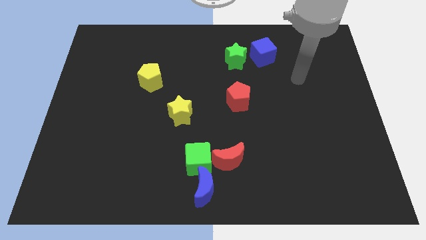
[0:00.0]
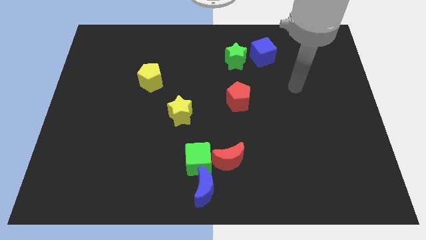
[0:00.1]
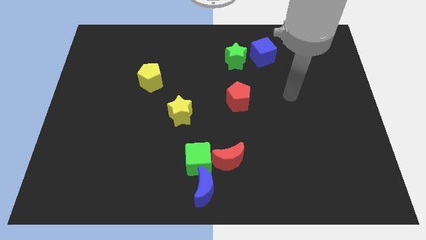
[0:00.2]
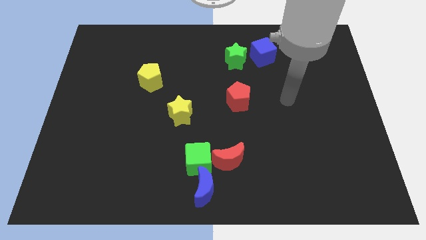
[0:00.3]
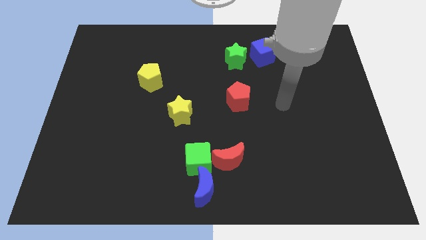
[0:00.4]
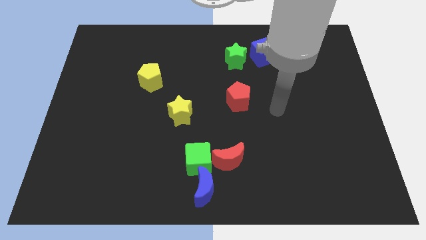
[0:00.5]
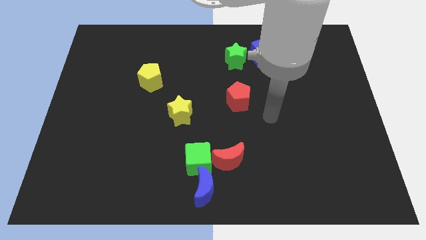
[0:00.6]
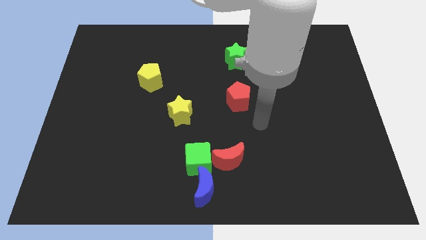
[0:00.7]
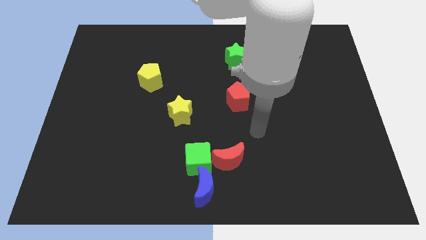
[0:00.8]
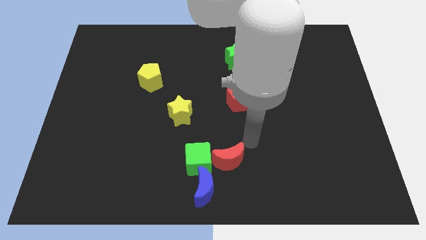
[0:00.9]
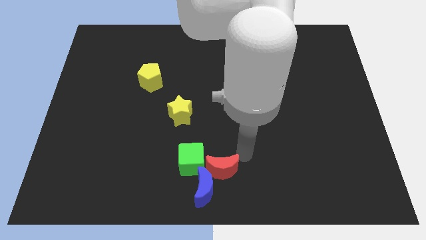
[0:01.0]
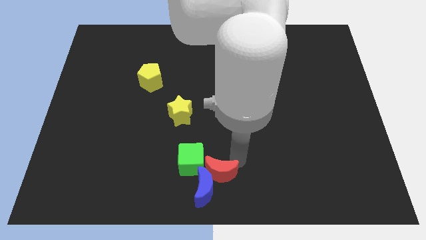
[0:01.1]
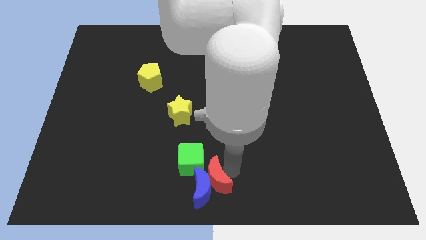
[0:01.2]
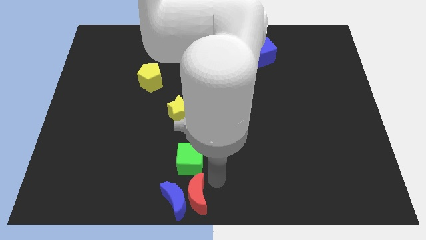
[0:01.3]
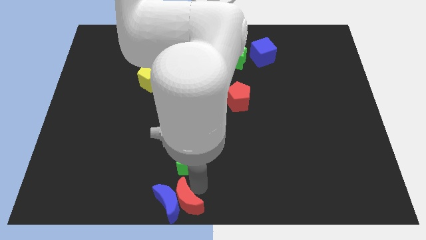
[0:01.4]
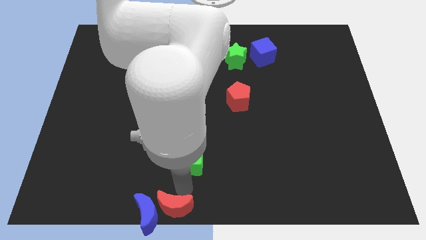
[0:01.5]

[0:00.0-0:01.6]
move the green cube away from the red moon and blue moon

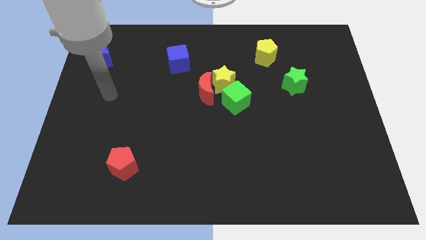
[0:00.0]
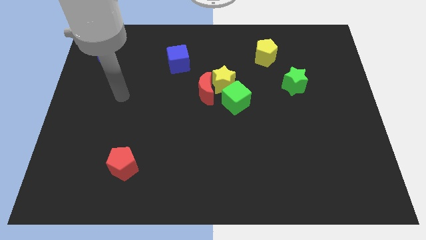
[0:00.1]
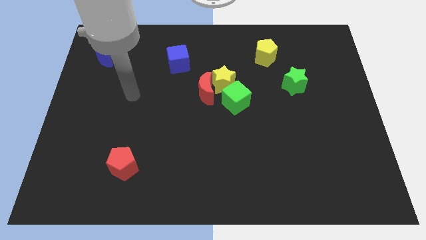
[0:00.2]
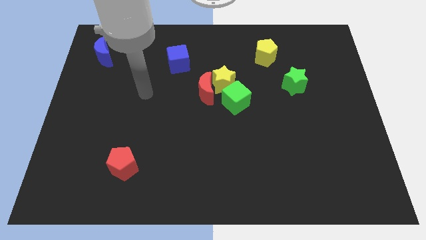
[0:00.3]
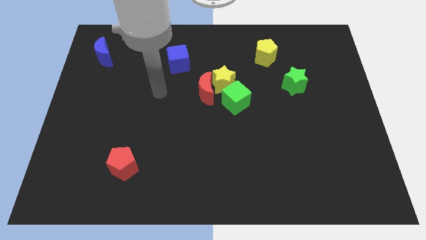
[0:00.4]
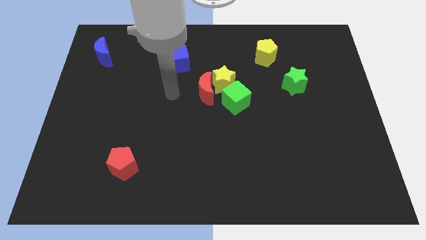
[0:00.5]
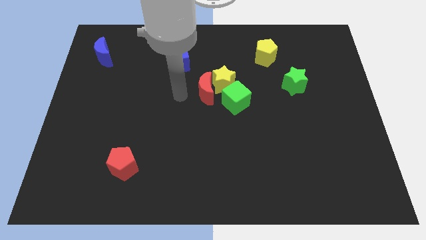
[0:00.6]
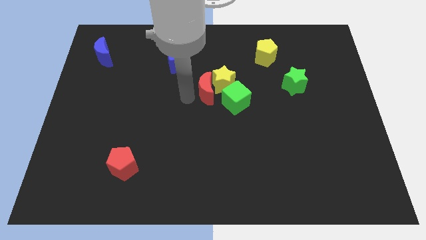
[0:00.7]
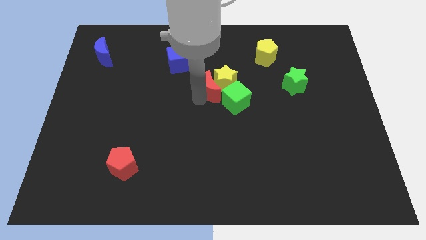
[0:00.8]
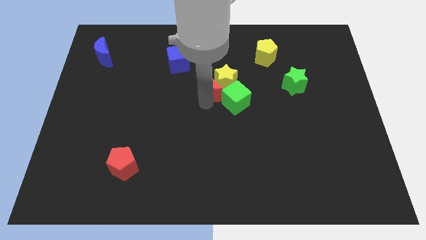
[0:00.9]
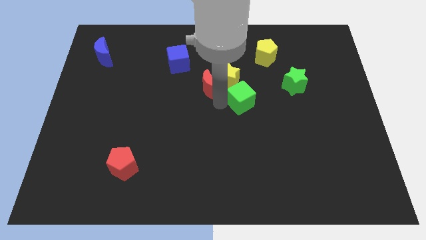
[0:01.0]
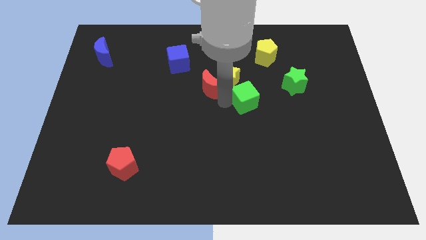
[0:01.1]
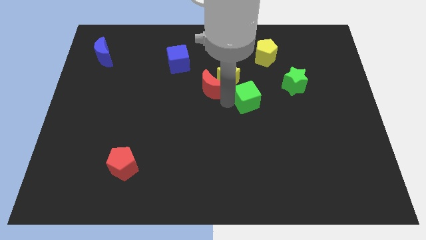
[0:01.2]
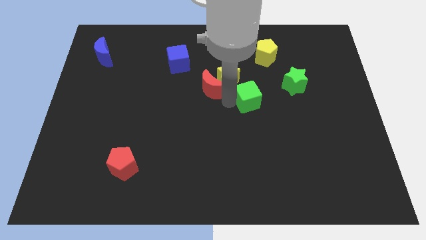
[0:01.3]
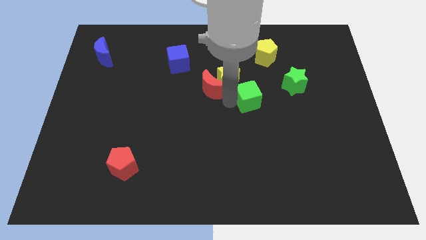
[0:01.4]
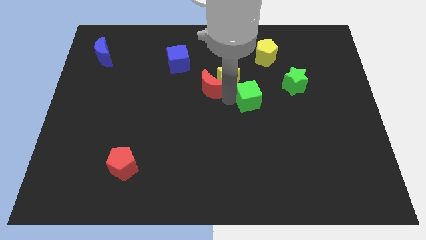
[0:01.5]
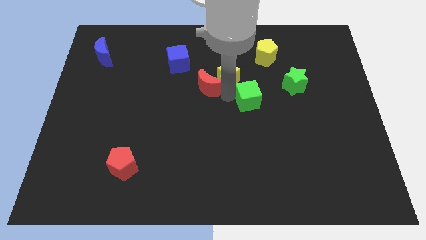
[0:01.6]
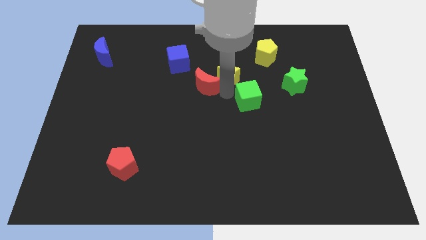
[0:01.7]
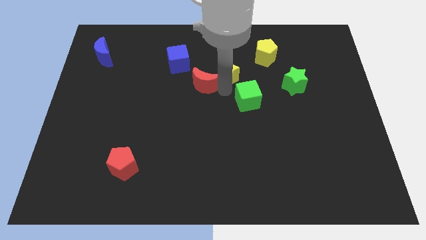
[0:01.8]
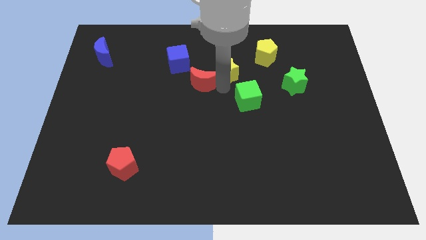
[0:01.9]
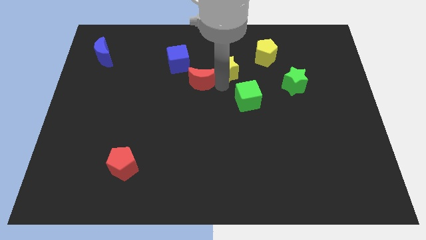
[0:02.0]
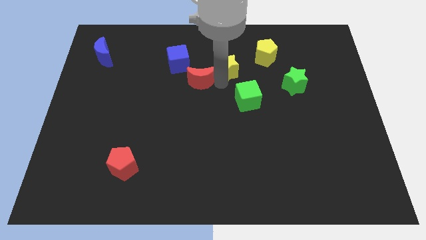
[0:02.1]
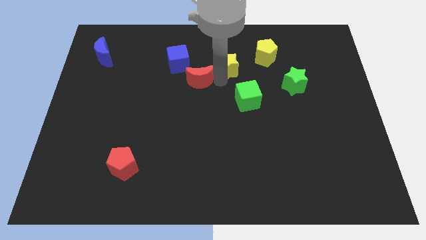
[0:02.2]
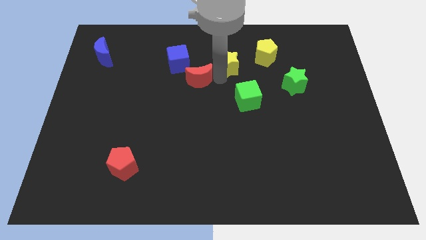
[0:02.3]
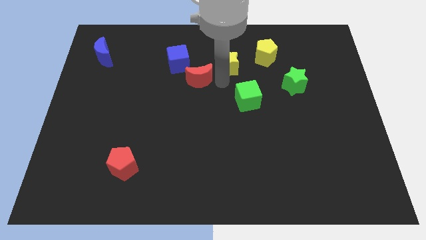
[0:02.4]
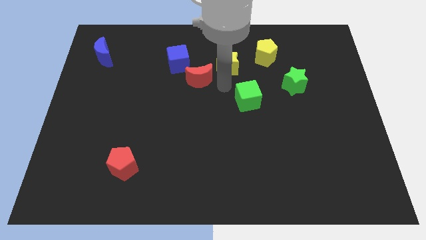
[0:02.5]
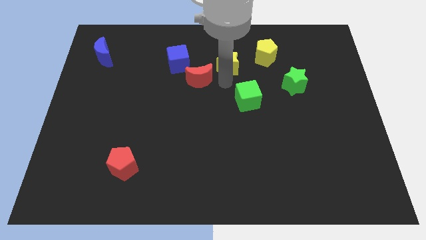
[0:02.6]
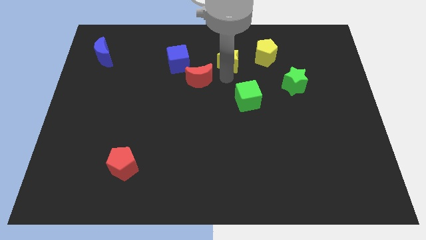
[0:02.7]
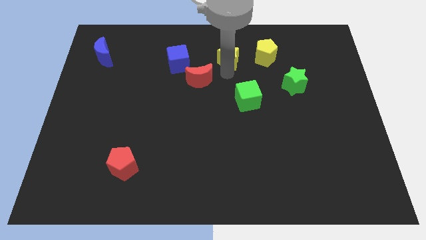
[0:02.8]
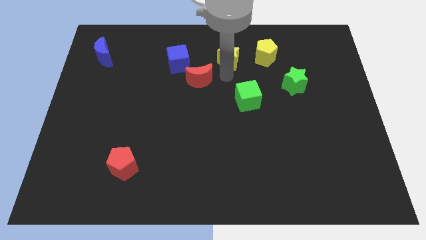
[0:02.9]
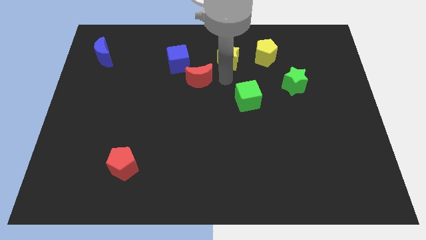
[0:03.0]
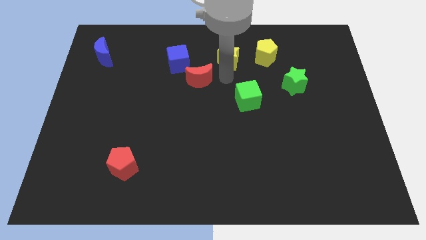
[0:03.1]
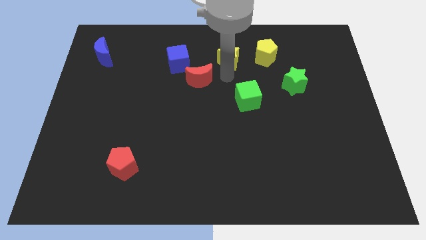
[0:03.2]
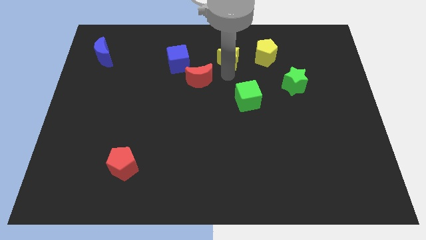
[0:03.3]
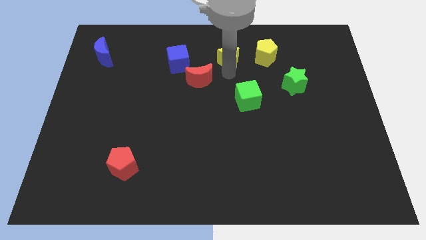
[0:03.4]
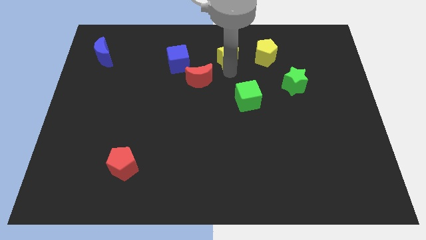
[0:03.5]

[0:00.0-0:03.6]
pull the yellow star apart from the red moon and green cube

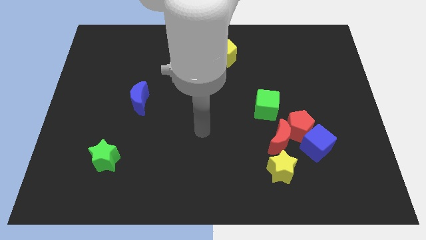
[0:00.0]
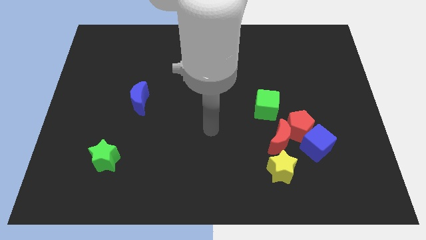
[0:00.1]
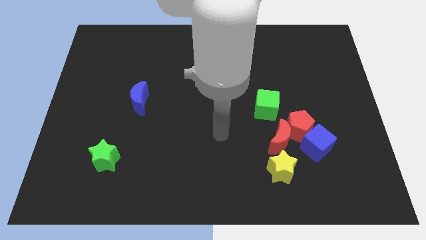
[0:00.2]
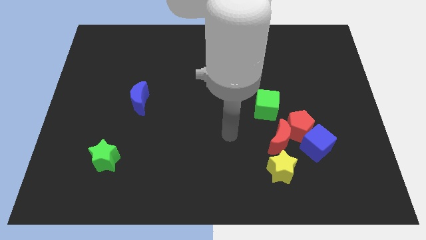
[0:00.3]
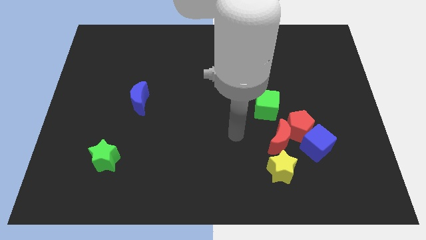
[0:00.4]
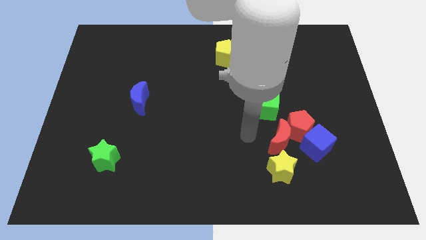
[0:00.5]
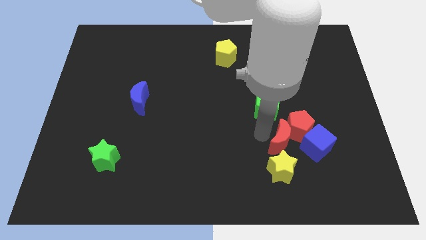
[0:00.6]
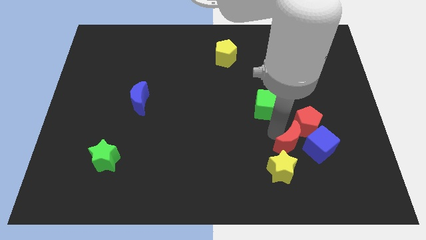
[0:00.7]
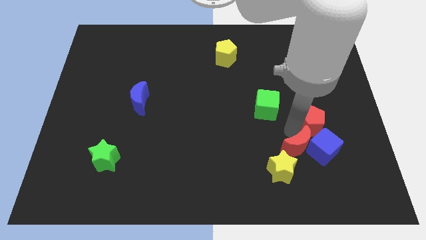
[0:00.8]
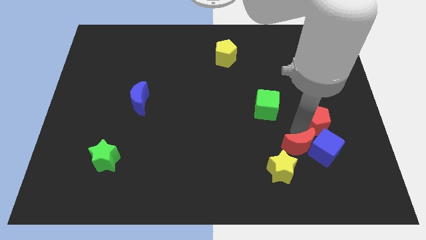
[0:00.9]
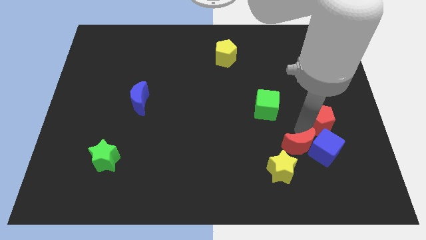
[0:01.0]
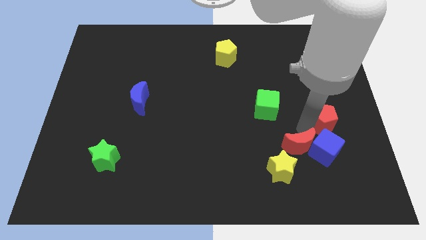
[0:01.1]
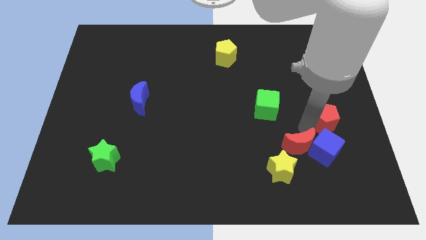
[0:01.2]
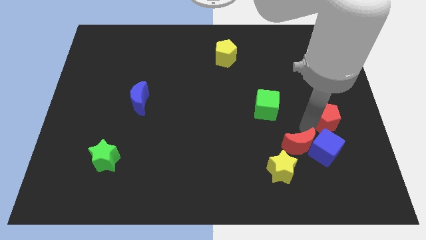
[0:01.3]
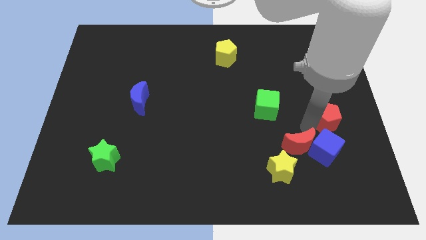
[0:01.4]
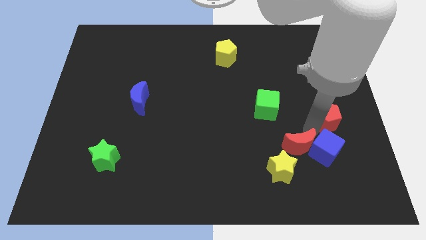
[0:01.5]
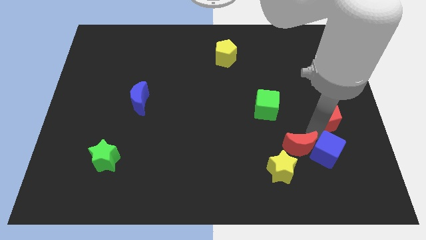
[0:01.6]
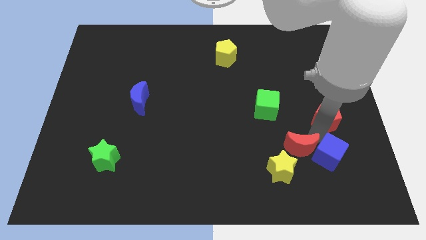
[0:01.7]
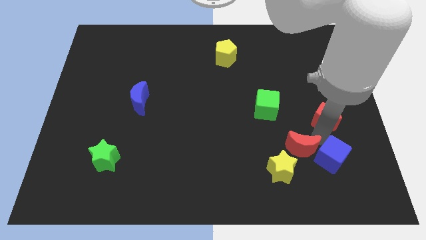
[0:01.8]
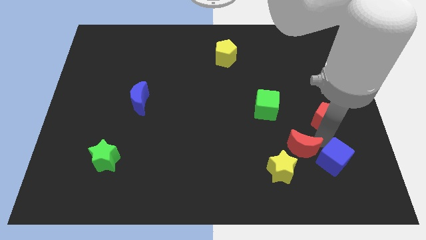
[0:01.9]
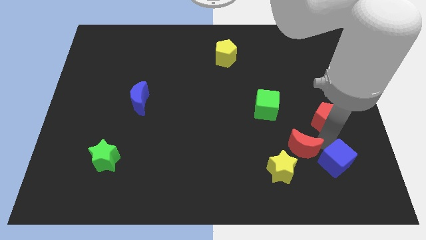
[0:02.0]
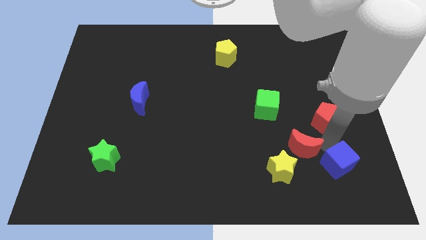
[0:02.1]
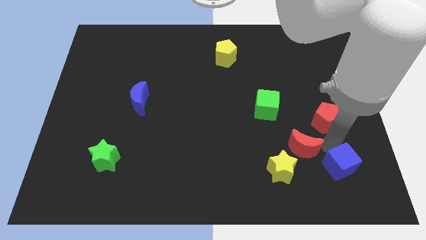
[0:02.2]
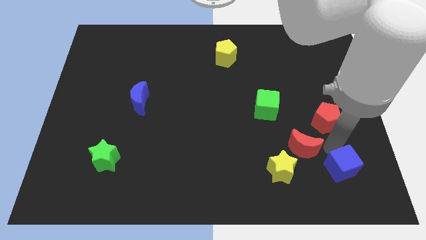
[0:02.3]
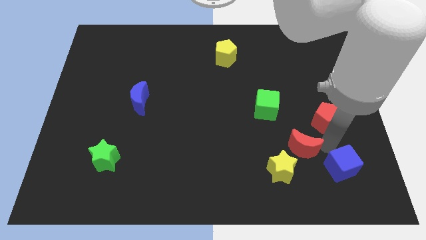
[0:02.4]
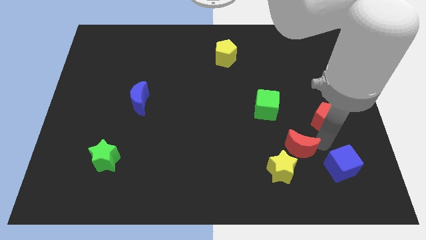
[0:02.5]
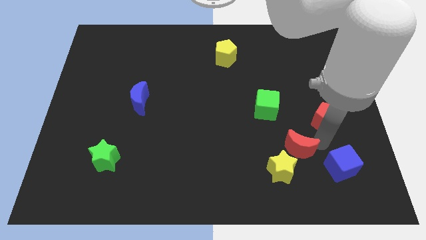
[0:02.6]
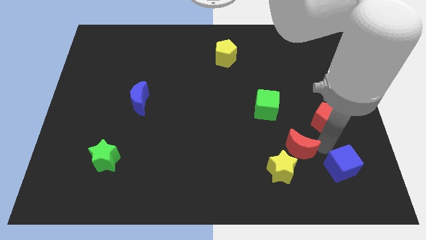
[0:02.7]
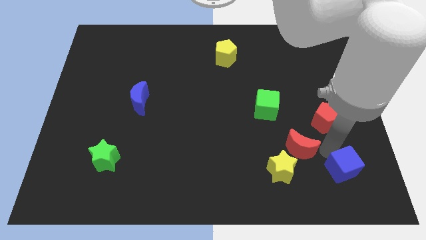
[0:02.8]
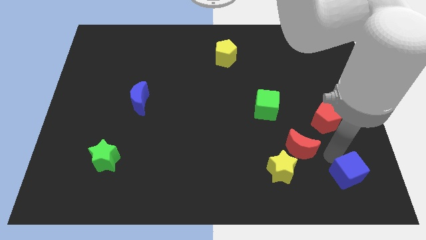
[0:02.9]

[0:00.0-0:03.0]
move the blue cube away from the red pentagon and red moon

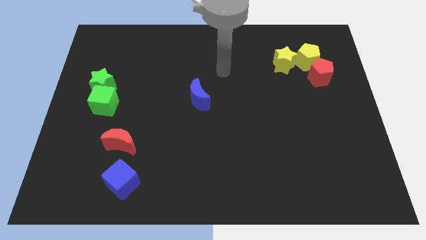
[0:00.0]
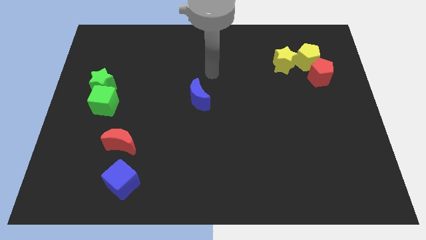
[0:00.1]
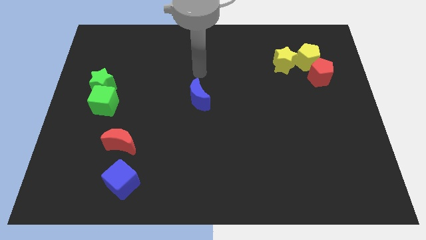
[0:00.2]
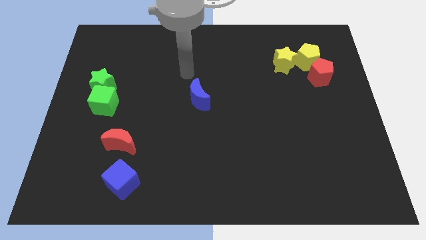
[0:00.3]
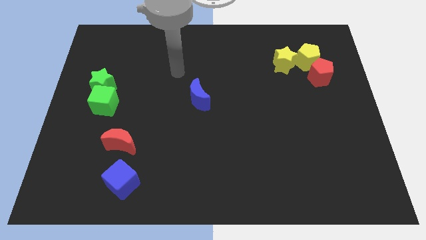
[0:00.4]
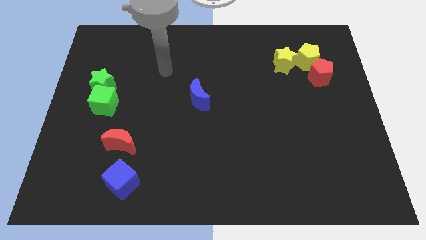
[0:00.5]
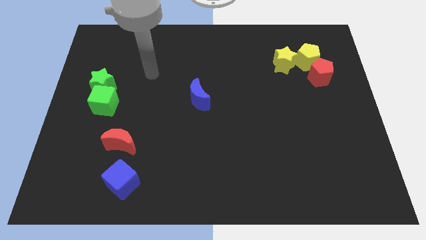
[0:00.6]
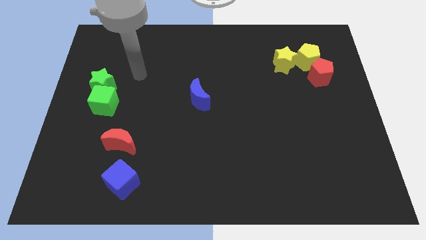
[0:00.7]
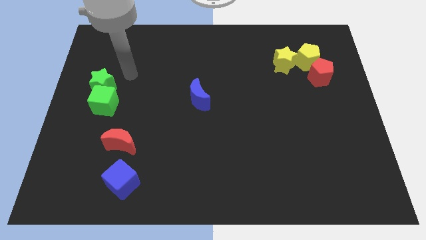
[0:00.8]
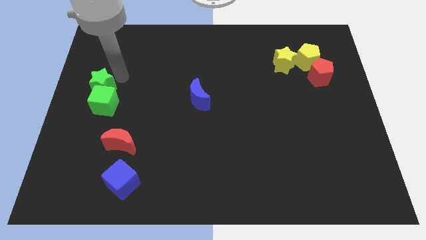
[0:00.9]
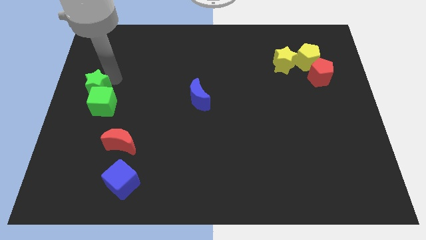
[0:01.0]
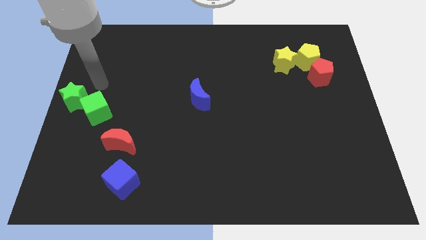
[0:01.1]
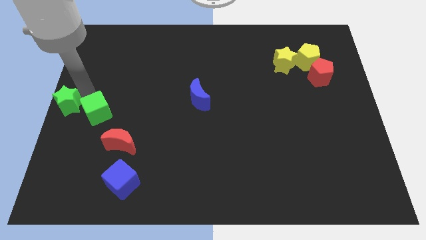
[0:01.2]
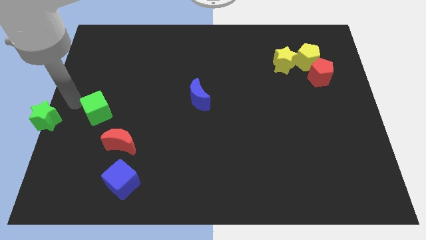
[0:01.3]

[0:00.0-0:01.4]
move the green cube away from the green star

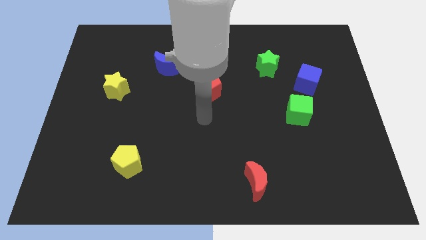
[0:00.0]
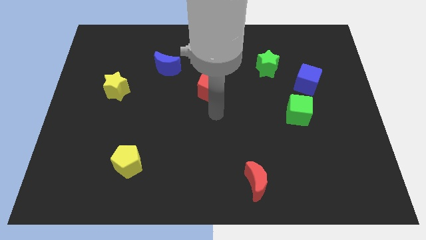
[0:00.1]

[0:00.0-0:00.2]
pull the blue cube apart from the green cube
